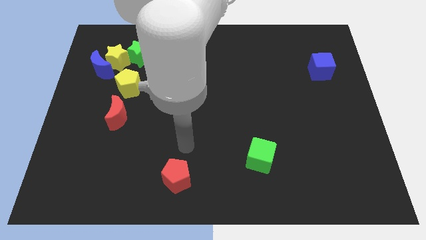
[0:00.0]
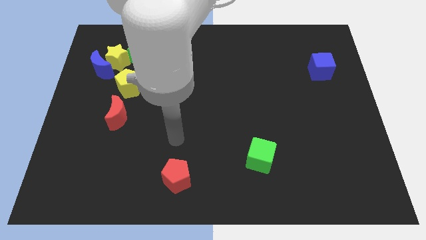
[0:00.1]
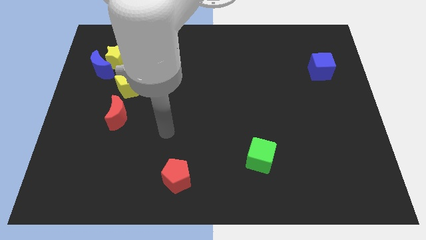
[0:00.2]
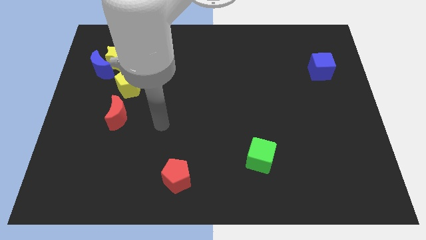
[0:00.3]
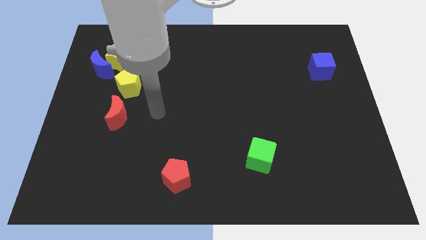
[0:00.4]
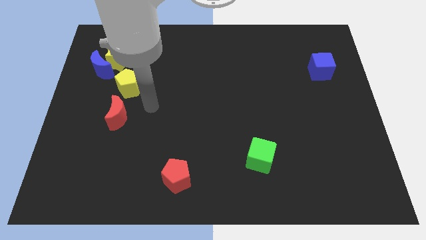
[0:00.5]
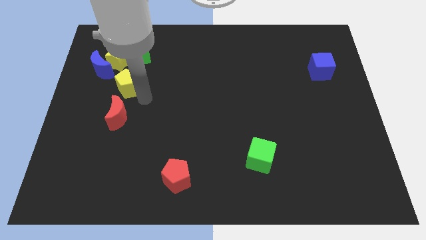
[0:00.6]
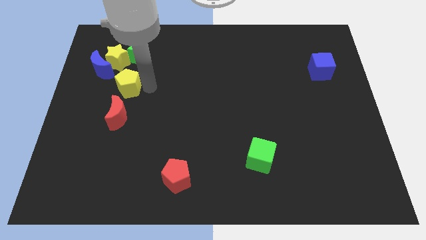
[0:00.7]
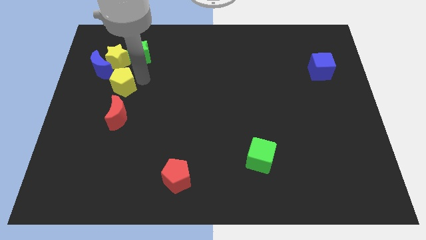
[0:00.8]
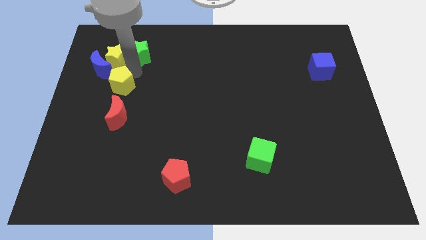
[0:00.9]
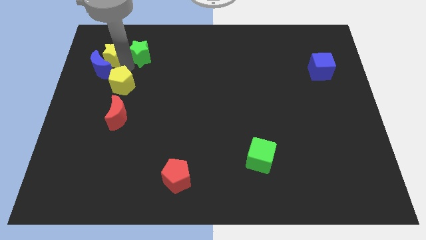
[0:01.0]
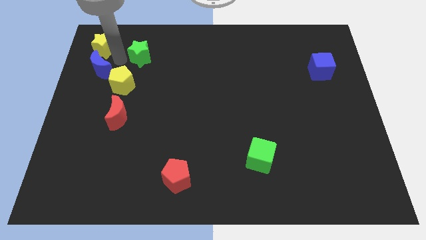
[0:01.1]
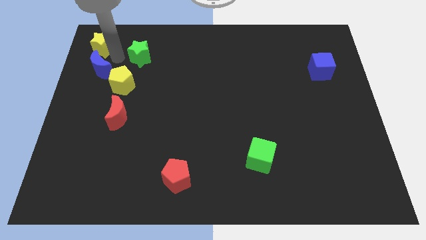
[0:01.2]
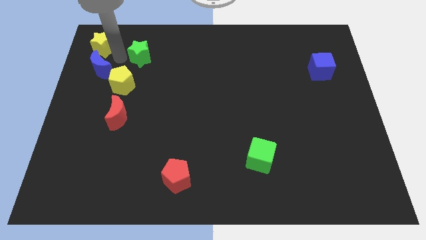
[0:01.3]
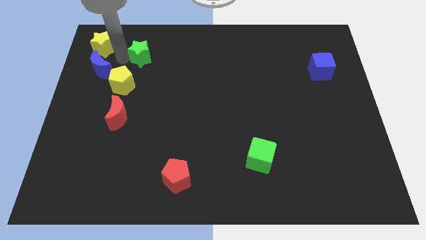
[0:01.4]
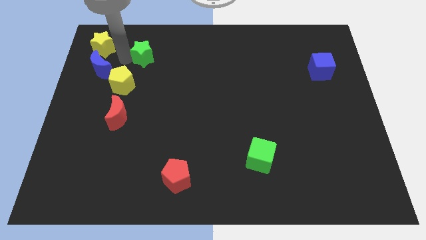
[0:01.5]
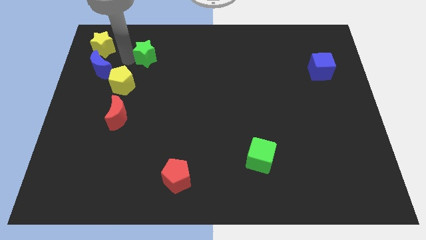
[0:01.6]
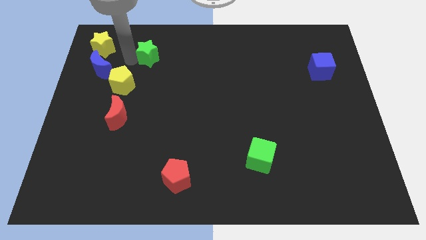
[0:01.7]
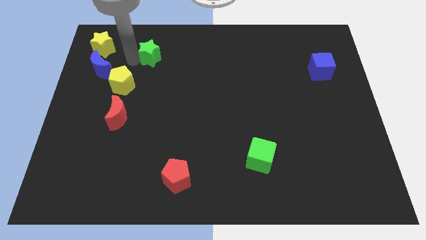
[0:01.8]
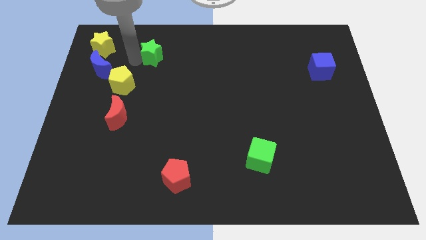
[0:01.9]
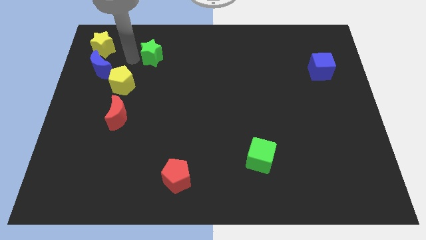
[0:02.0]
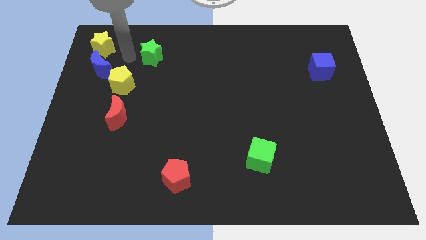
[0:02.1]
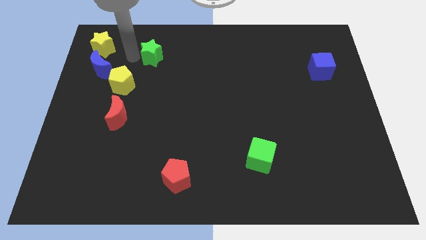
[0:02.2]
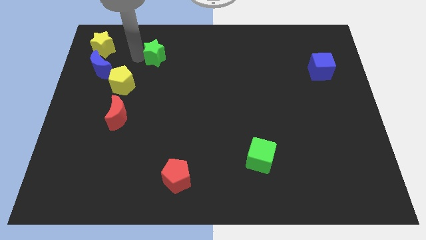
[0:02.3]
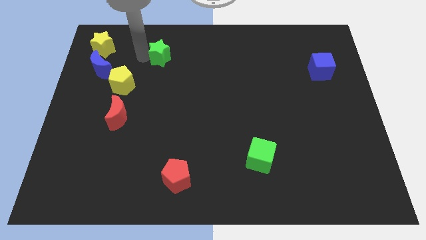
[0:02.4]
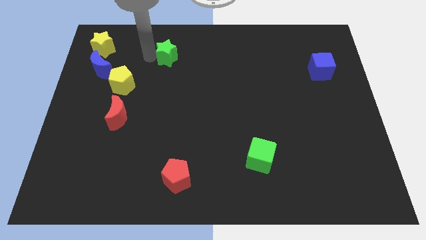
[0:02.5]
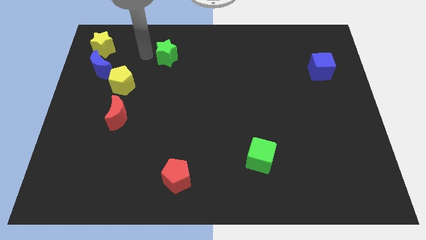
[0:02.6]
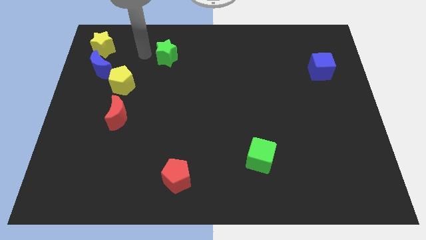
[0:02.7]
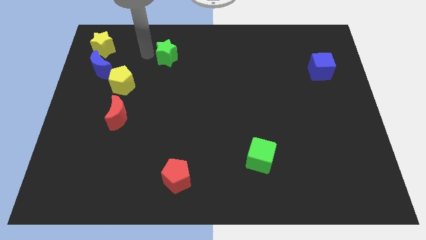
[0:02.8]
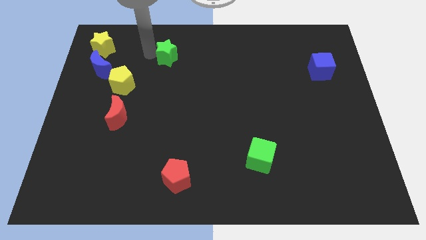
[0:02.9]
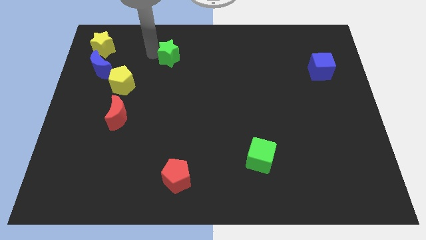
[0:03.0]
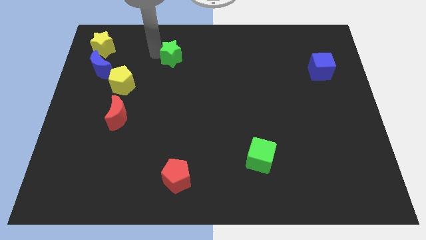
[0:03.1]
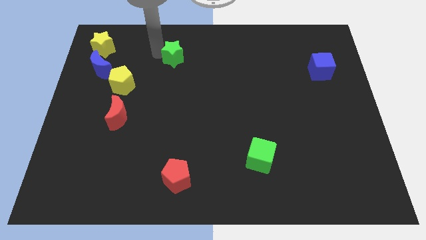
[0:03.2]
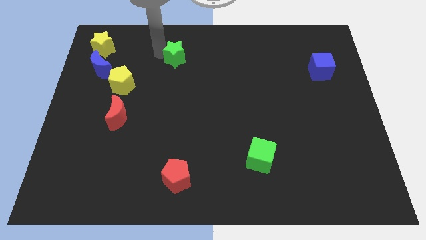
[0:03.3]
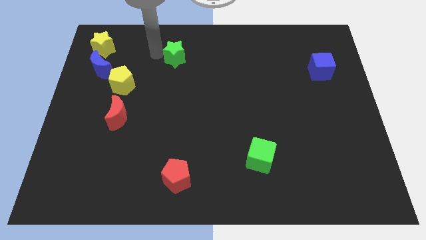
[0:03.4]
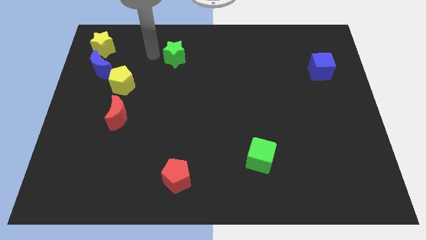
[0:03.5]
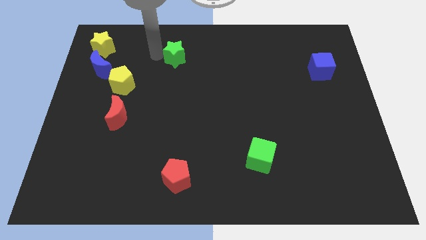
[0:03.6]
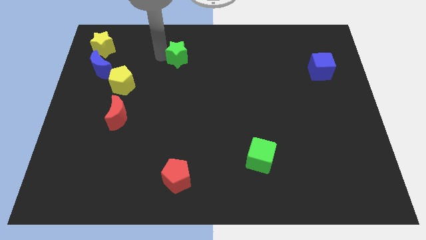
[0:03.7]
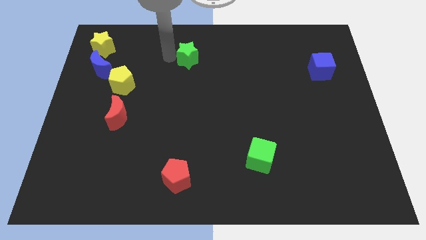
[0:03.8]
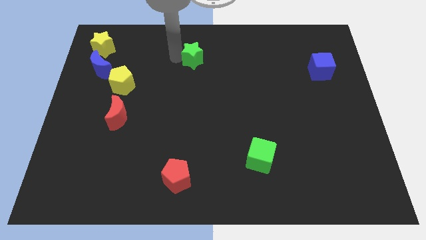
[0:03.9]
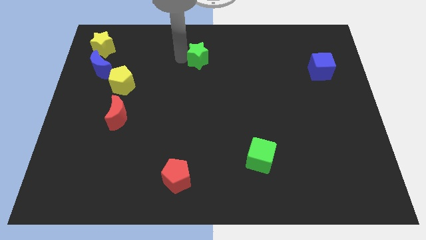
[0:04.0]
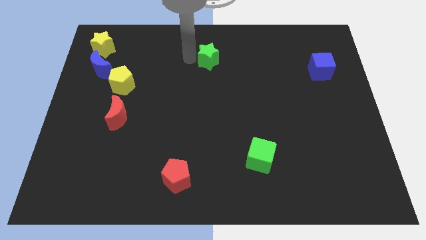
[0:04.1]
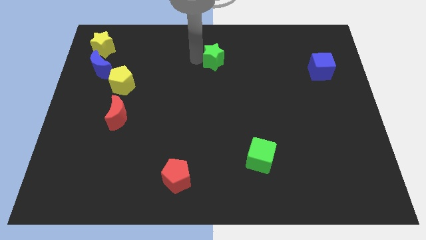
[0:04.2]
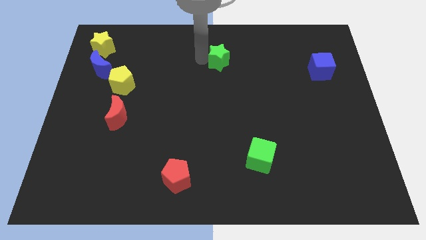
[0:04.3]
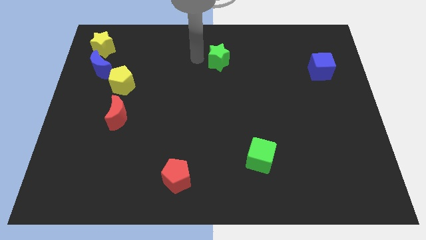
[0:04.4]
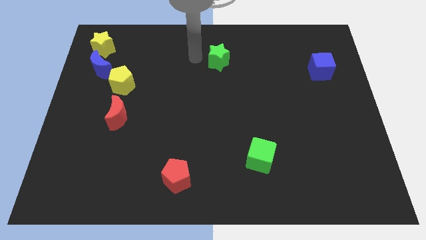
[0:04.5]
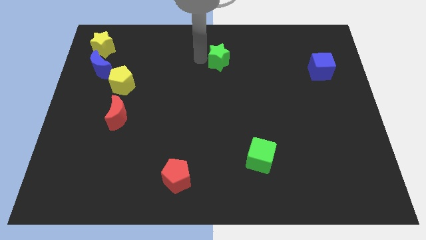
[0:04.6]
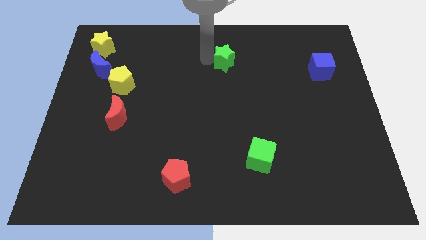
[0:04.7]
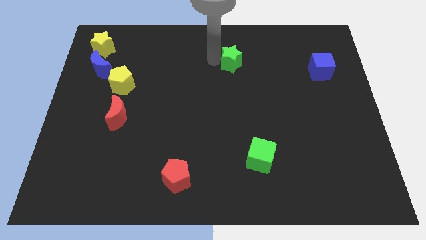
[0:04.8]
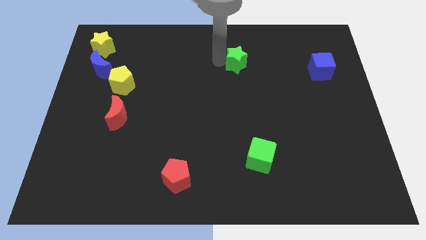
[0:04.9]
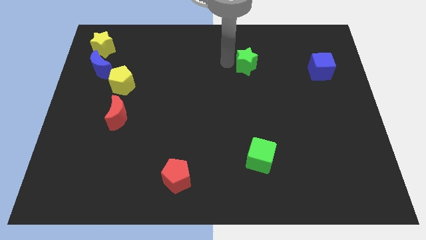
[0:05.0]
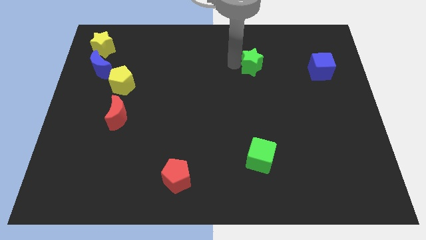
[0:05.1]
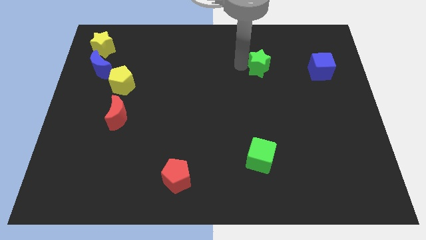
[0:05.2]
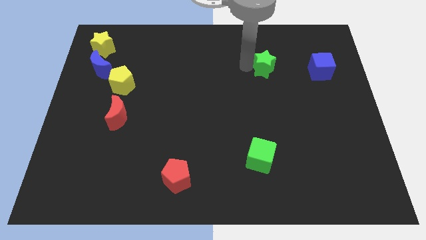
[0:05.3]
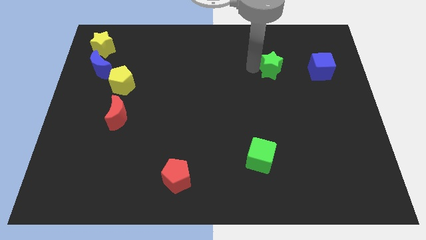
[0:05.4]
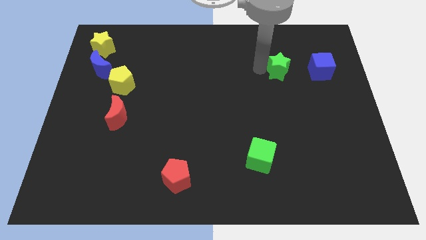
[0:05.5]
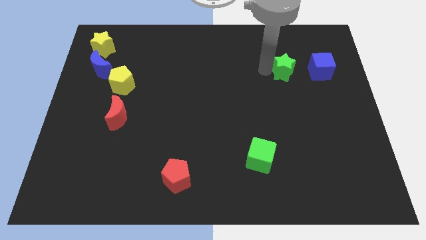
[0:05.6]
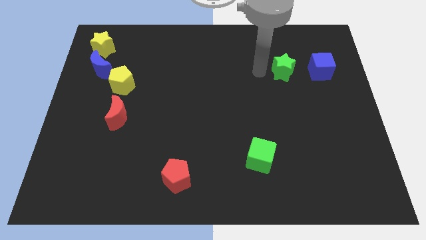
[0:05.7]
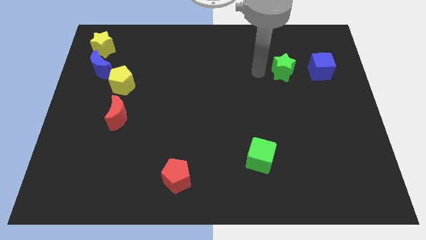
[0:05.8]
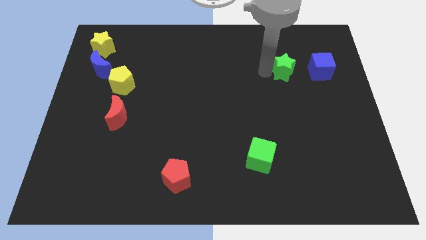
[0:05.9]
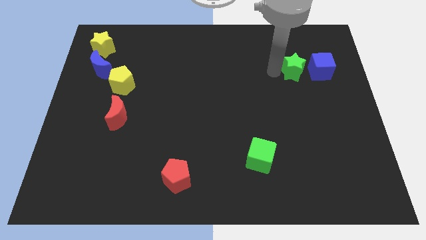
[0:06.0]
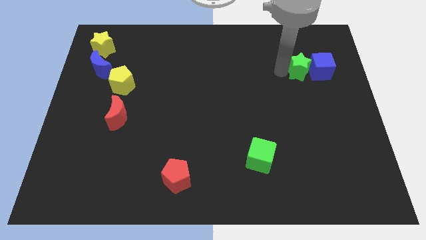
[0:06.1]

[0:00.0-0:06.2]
put the green star towards the blue cube

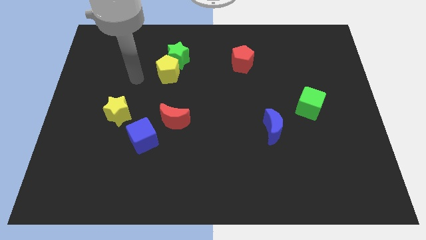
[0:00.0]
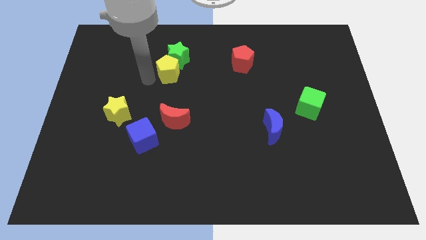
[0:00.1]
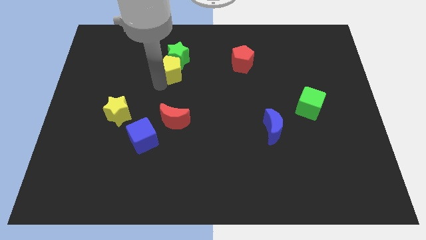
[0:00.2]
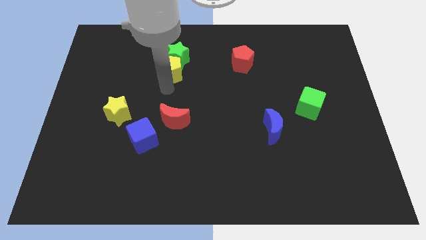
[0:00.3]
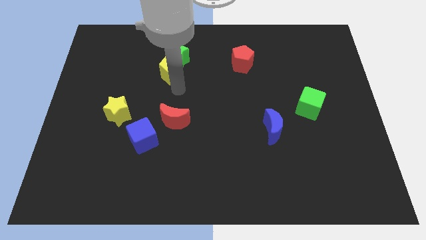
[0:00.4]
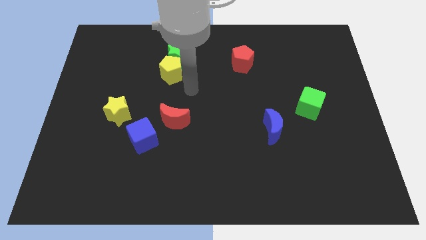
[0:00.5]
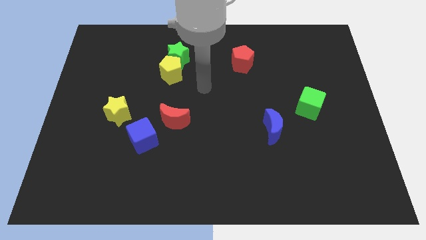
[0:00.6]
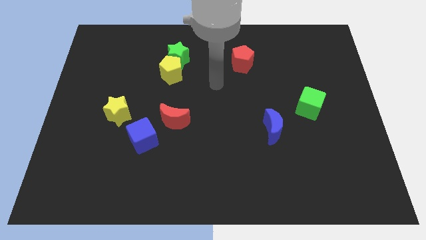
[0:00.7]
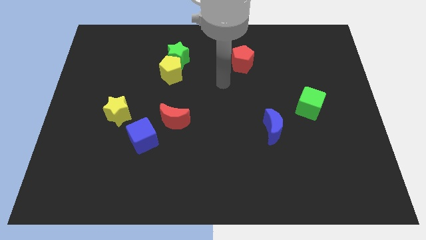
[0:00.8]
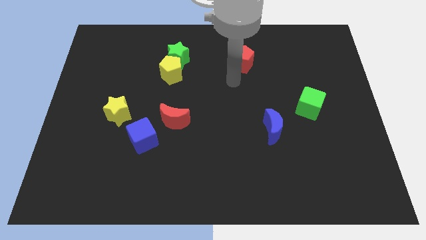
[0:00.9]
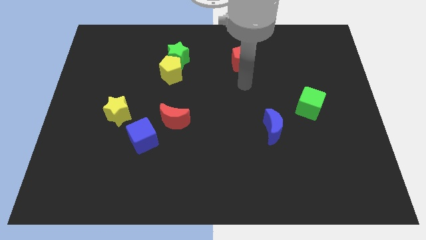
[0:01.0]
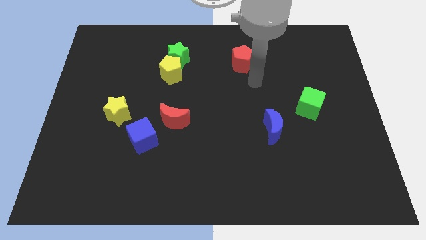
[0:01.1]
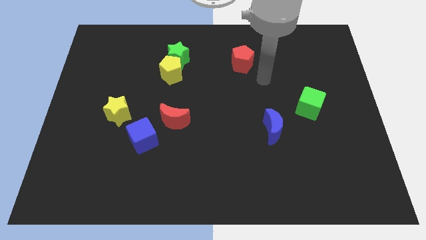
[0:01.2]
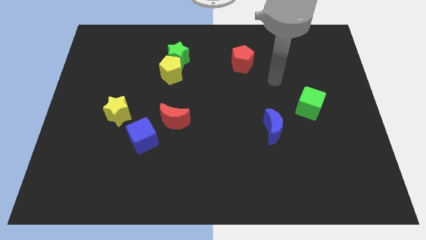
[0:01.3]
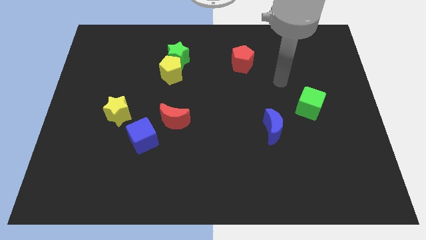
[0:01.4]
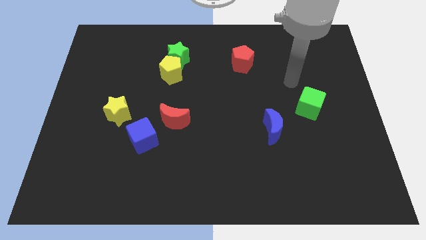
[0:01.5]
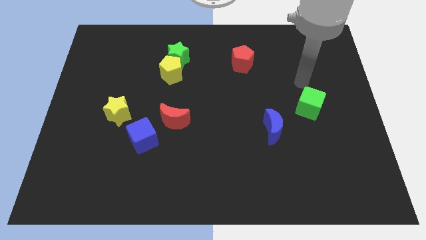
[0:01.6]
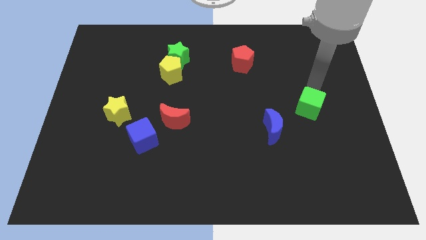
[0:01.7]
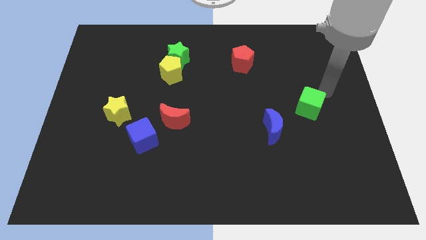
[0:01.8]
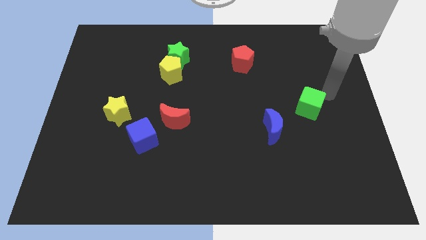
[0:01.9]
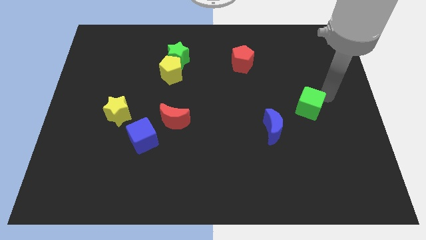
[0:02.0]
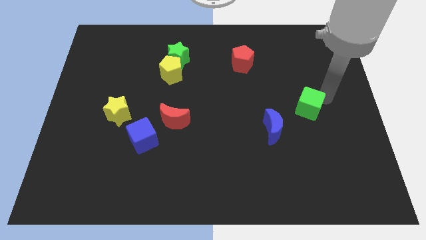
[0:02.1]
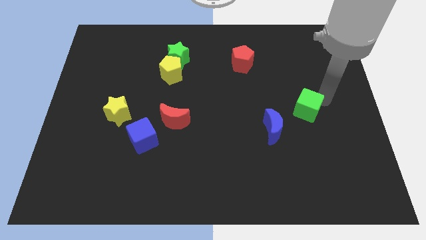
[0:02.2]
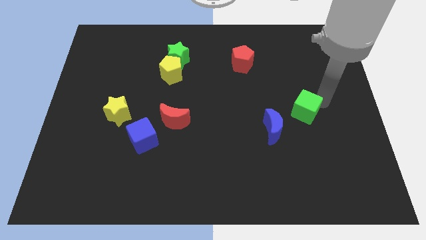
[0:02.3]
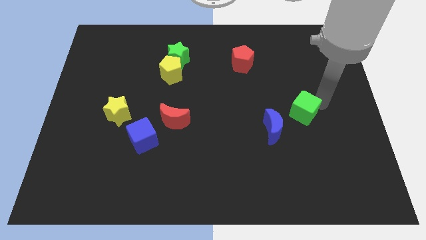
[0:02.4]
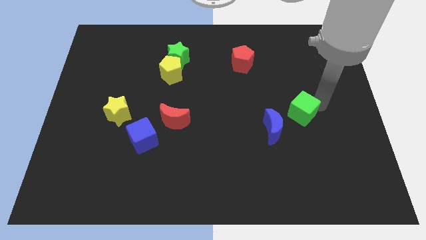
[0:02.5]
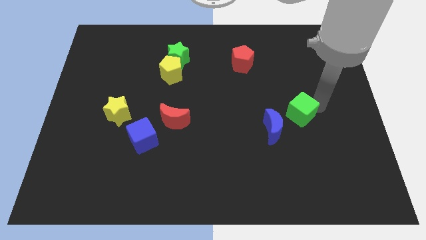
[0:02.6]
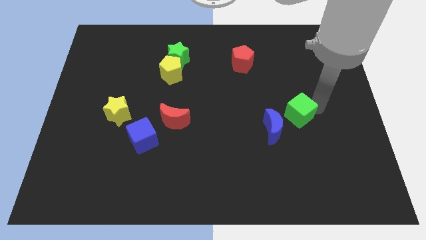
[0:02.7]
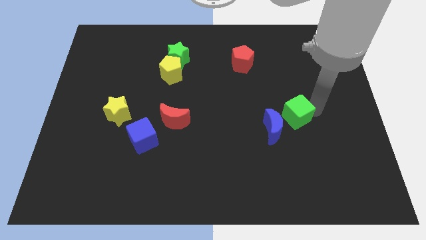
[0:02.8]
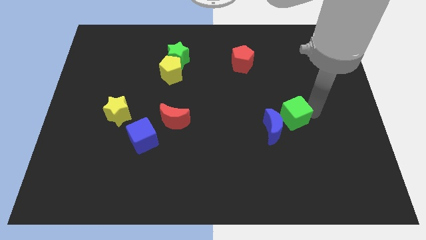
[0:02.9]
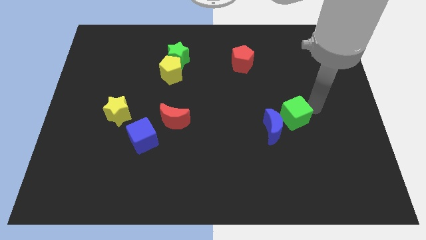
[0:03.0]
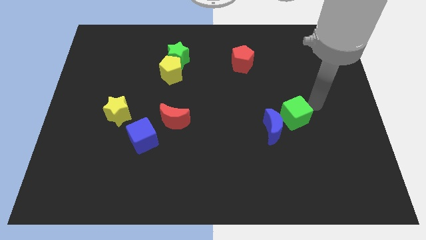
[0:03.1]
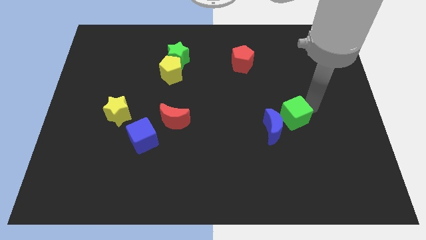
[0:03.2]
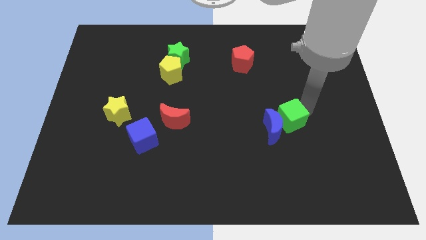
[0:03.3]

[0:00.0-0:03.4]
move the green cube next to the blue moon
